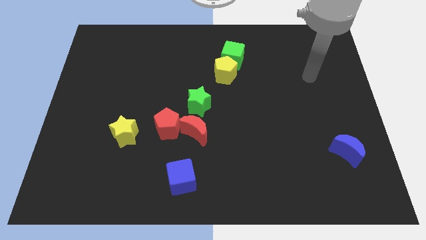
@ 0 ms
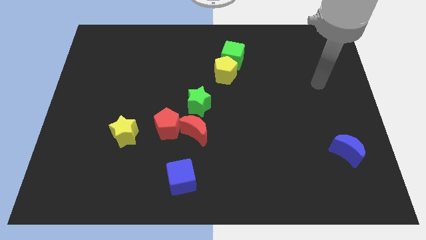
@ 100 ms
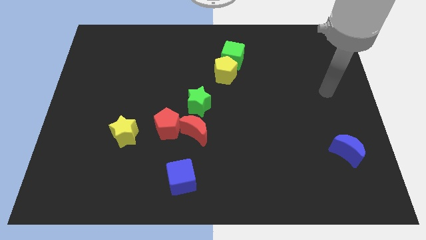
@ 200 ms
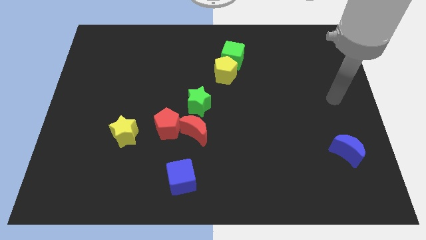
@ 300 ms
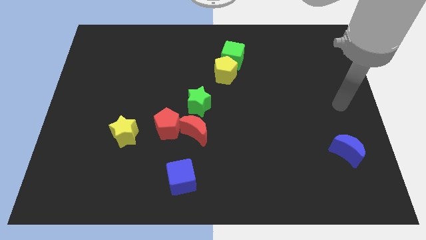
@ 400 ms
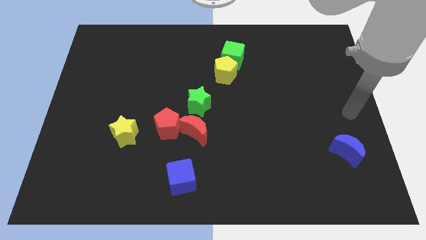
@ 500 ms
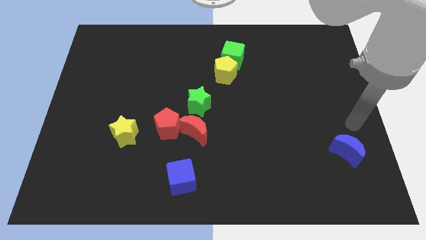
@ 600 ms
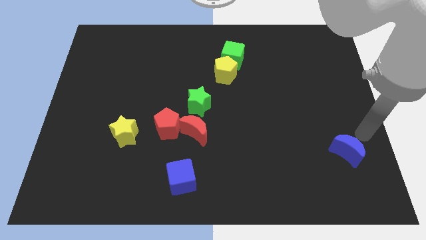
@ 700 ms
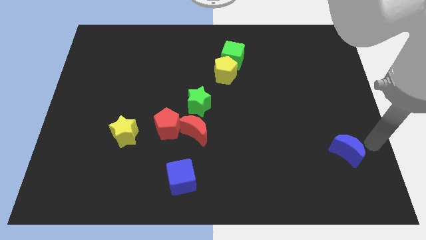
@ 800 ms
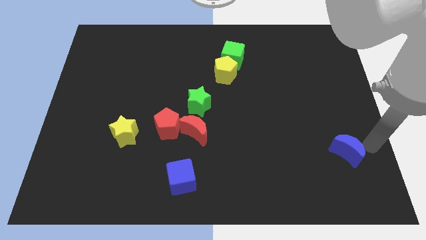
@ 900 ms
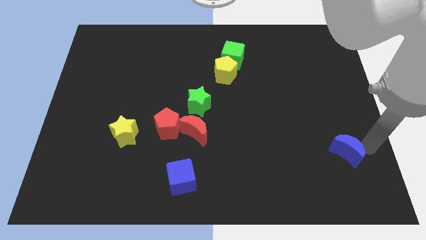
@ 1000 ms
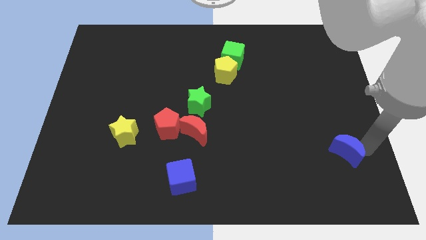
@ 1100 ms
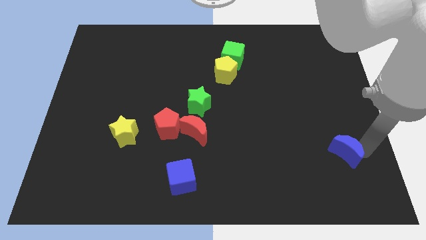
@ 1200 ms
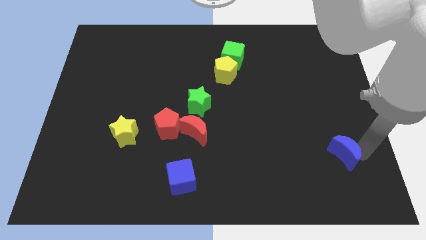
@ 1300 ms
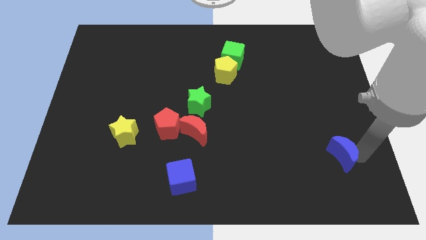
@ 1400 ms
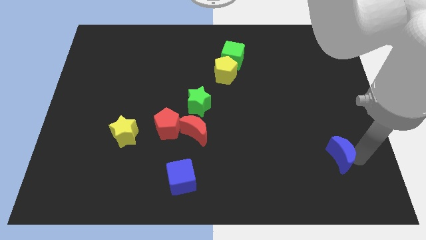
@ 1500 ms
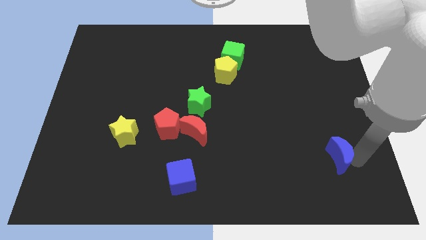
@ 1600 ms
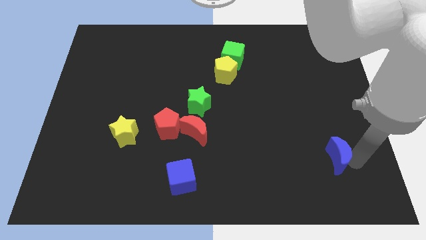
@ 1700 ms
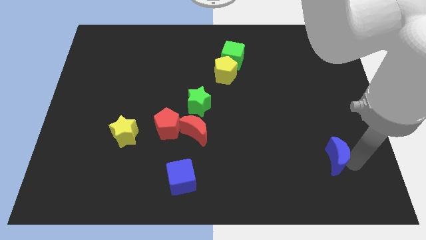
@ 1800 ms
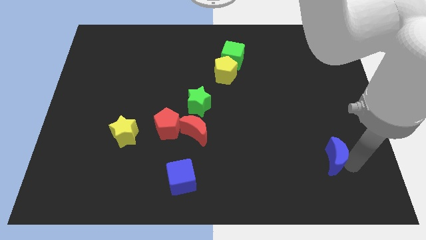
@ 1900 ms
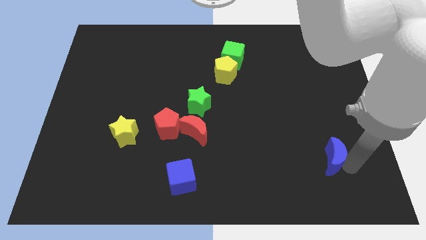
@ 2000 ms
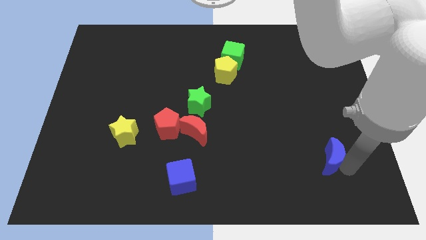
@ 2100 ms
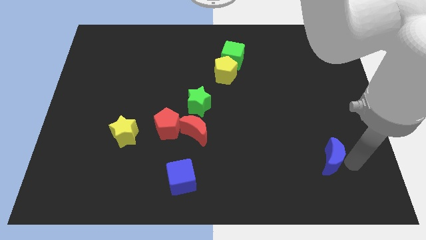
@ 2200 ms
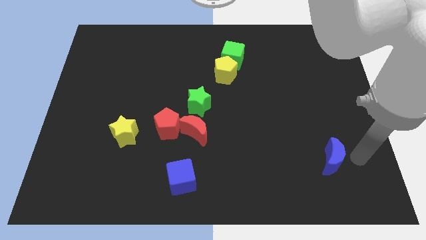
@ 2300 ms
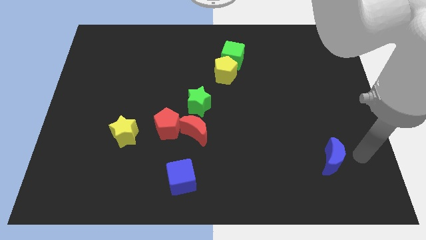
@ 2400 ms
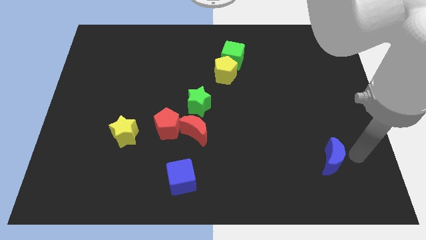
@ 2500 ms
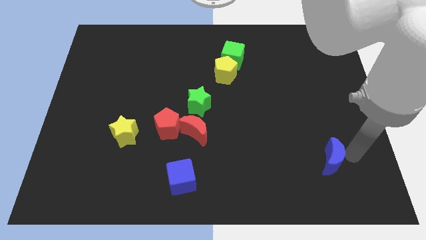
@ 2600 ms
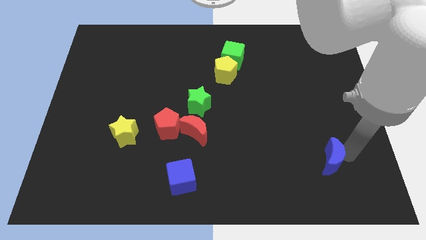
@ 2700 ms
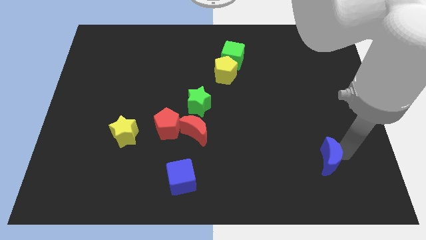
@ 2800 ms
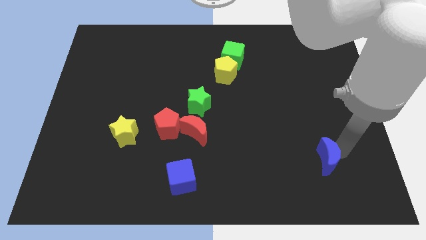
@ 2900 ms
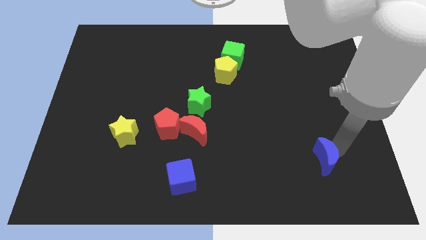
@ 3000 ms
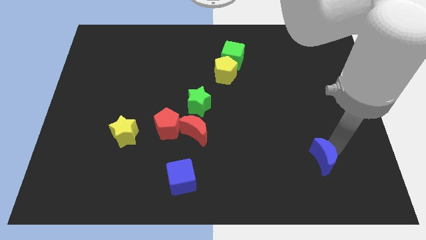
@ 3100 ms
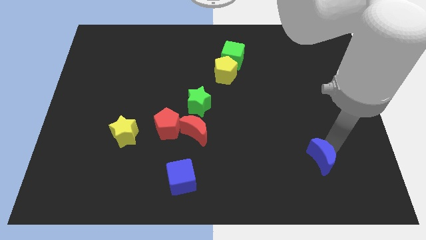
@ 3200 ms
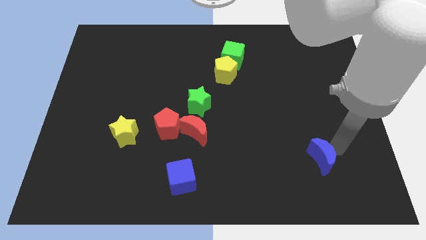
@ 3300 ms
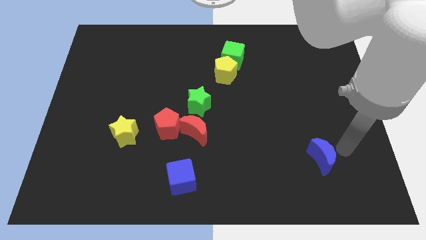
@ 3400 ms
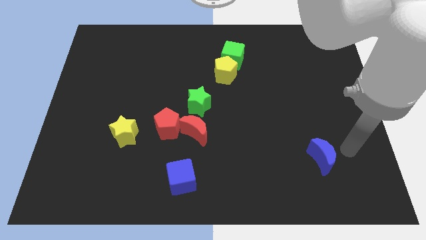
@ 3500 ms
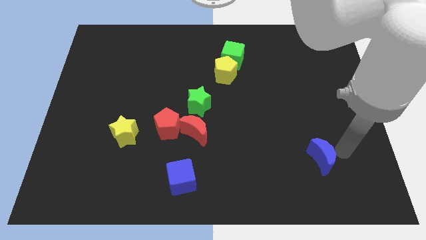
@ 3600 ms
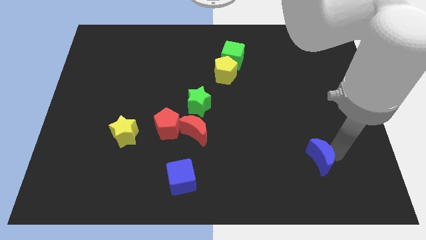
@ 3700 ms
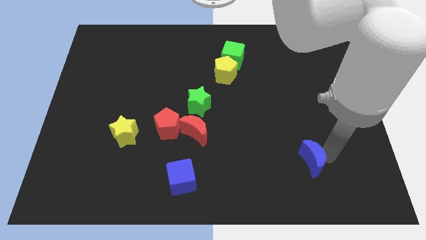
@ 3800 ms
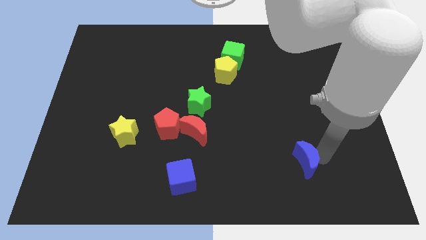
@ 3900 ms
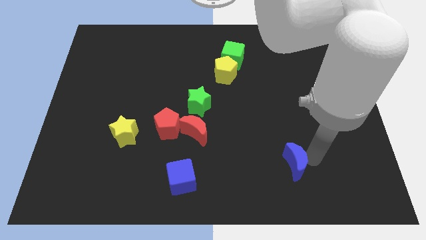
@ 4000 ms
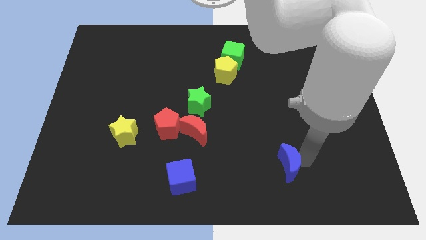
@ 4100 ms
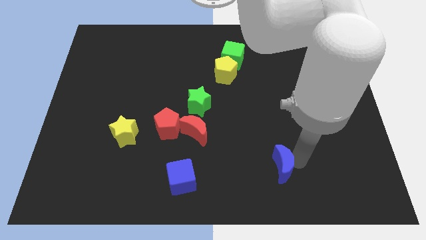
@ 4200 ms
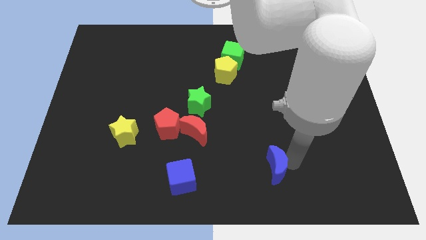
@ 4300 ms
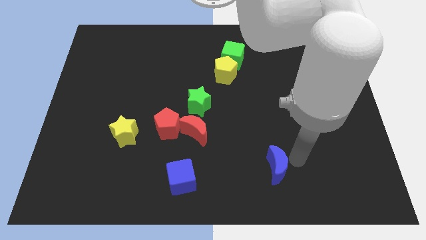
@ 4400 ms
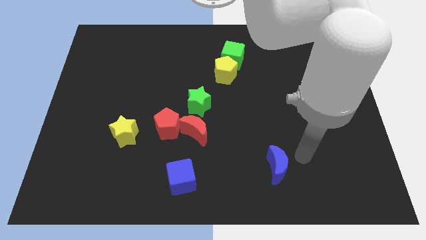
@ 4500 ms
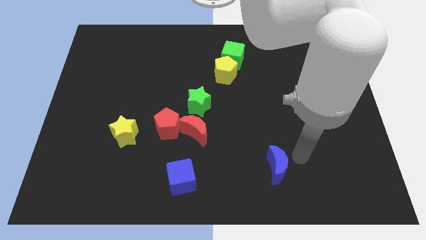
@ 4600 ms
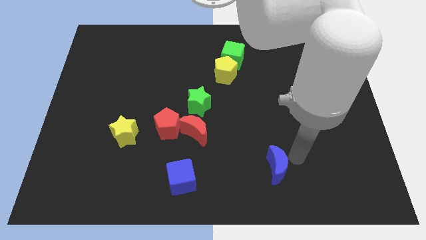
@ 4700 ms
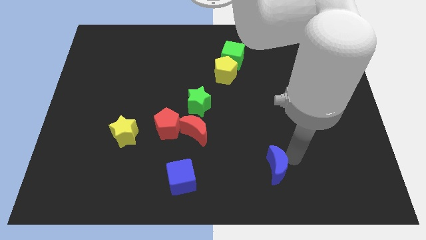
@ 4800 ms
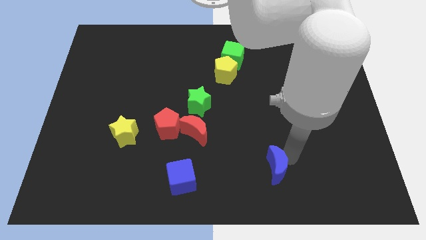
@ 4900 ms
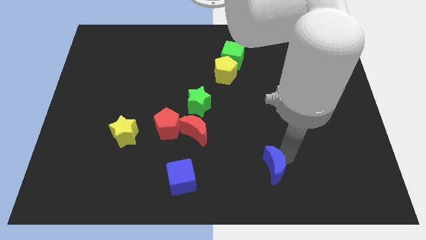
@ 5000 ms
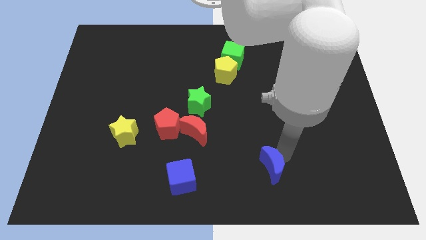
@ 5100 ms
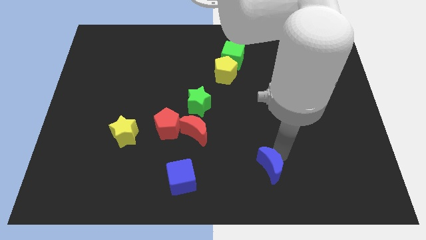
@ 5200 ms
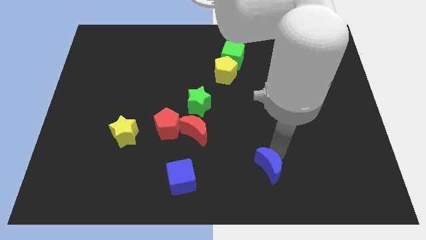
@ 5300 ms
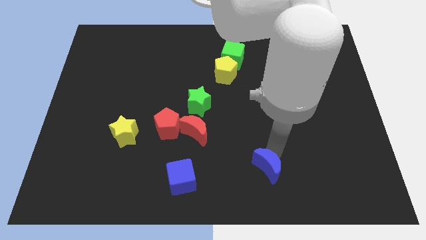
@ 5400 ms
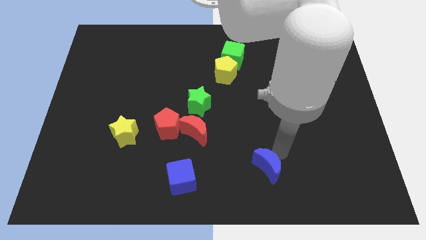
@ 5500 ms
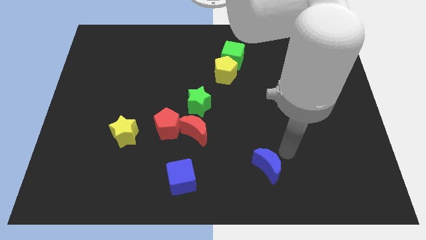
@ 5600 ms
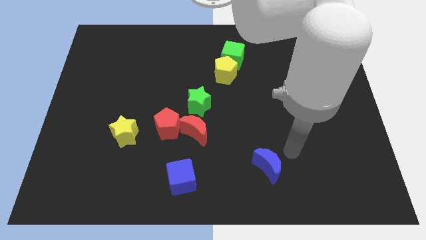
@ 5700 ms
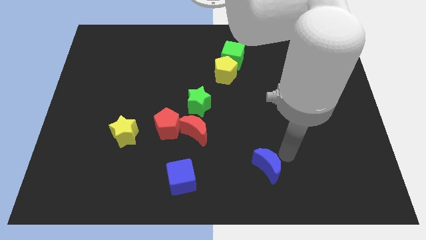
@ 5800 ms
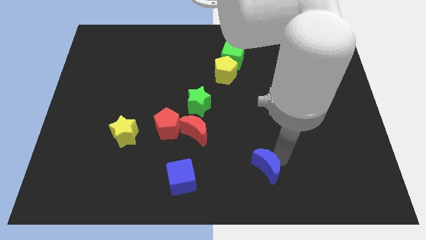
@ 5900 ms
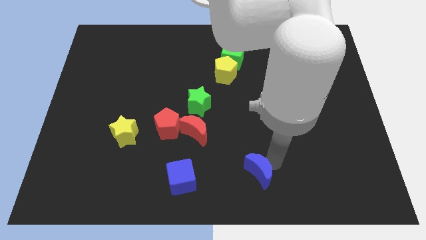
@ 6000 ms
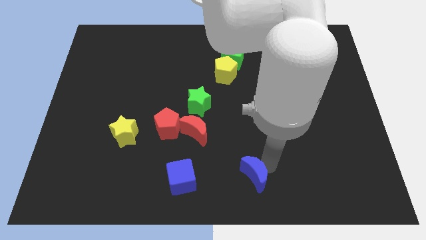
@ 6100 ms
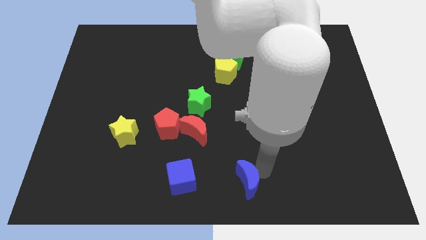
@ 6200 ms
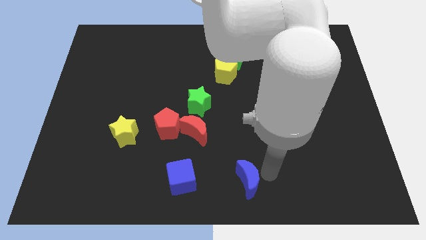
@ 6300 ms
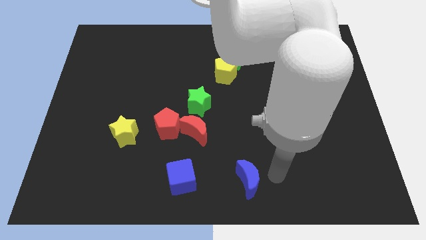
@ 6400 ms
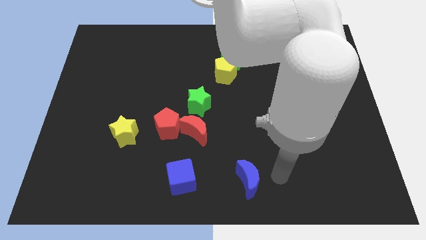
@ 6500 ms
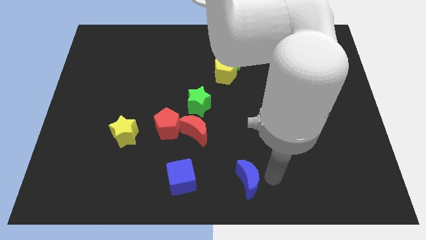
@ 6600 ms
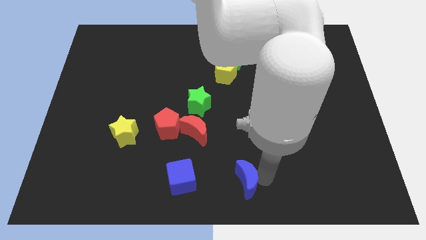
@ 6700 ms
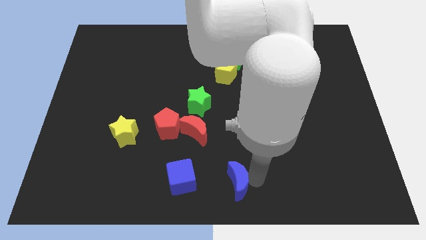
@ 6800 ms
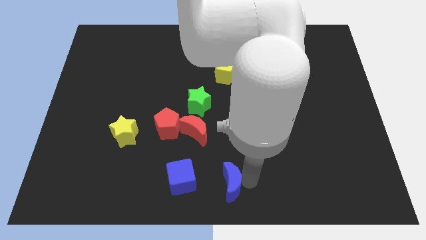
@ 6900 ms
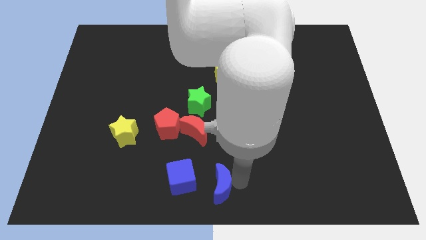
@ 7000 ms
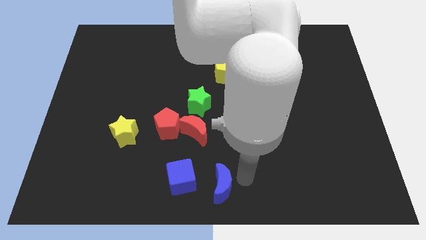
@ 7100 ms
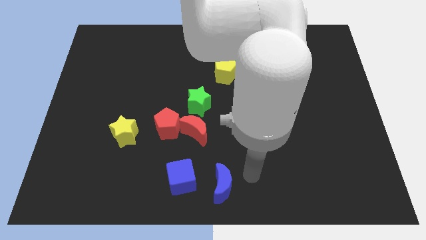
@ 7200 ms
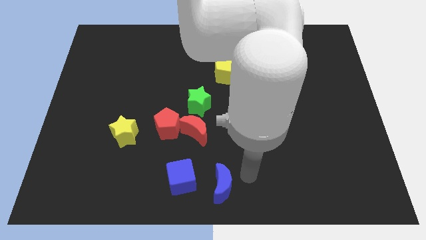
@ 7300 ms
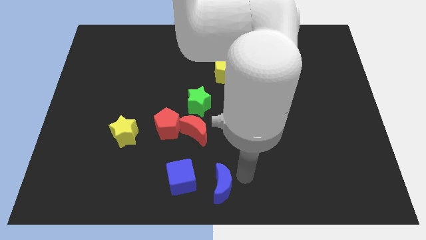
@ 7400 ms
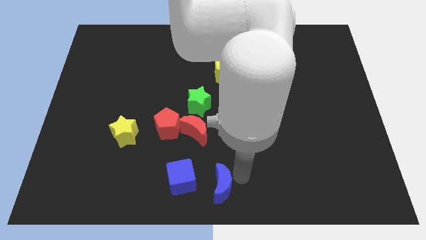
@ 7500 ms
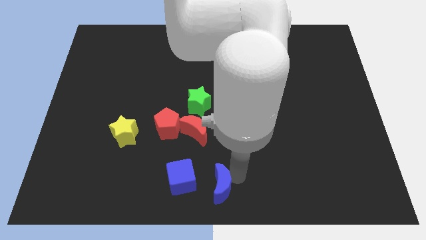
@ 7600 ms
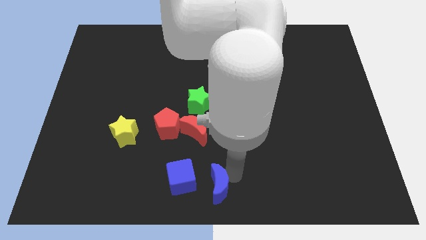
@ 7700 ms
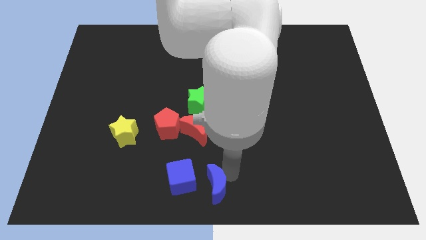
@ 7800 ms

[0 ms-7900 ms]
move the blue moon to the bottom of the red moon
